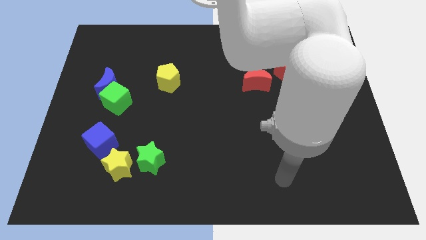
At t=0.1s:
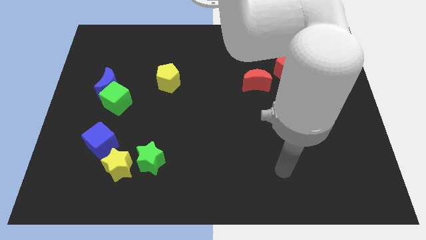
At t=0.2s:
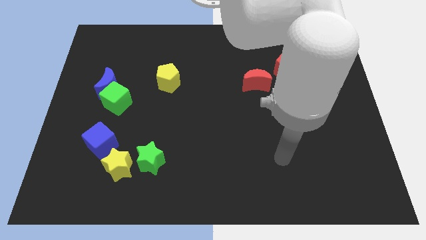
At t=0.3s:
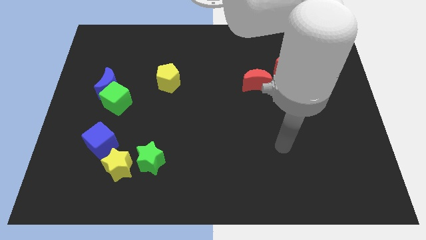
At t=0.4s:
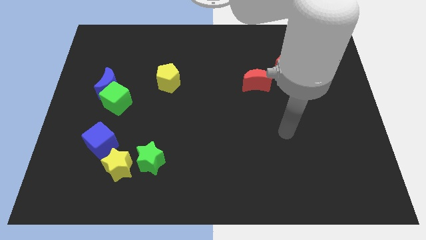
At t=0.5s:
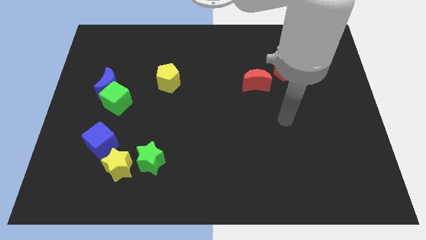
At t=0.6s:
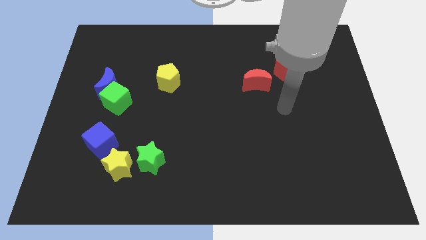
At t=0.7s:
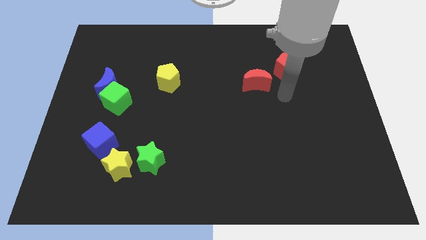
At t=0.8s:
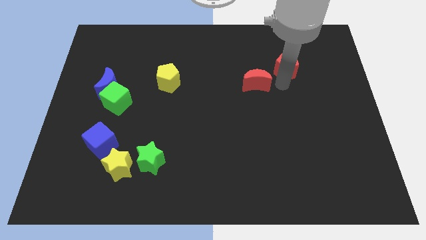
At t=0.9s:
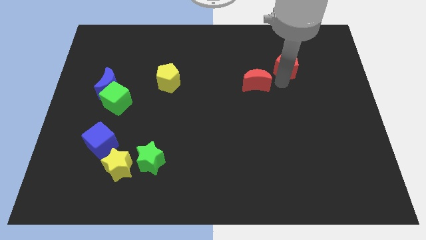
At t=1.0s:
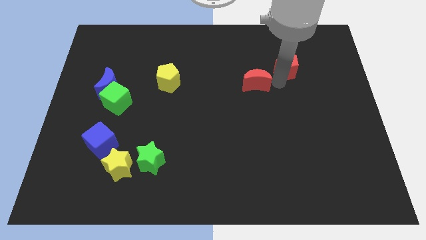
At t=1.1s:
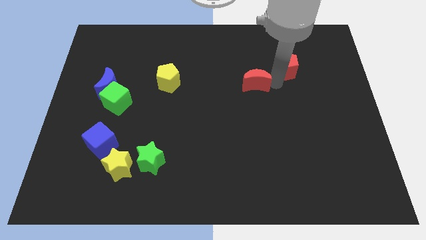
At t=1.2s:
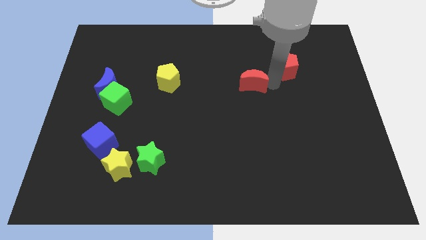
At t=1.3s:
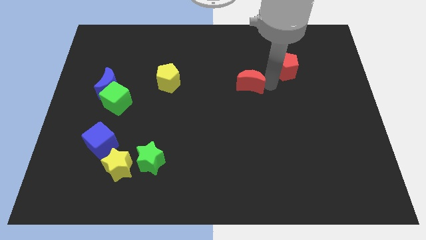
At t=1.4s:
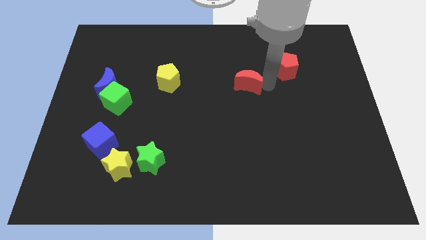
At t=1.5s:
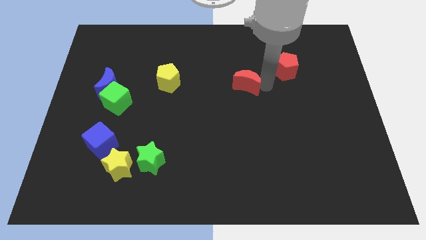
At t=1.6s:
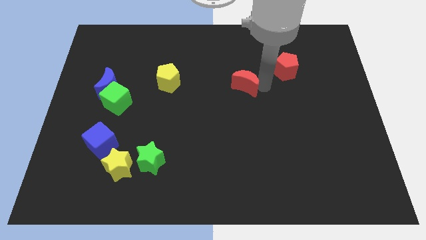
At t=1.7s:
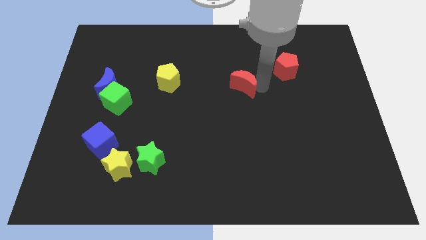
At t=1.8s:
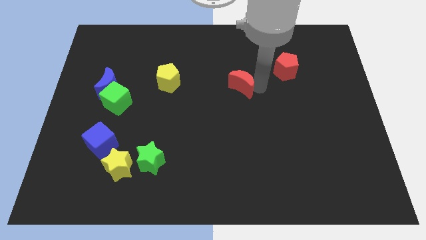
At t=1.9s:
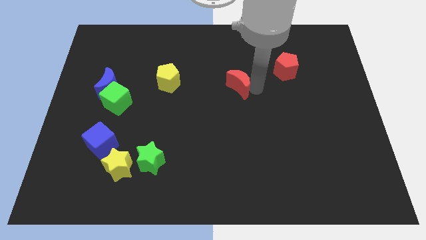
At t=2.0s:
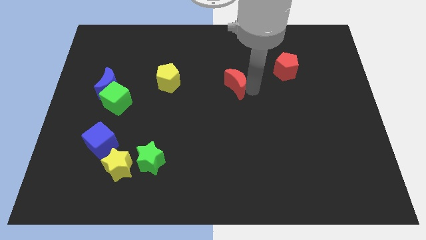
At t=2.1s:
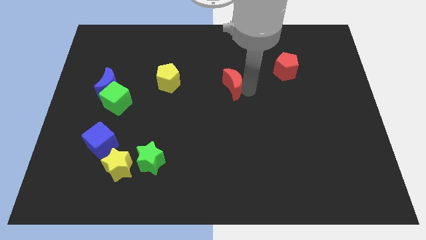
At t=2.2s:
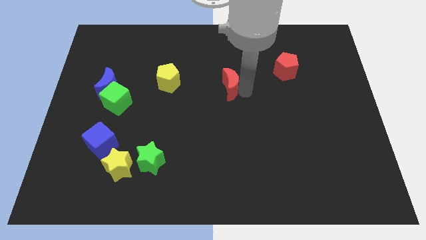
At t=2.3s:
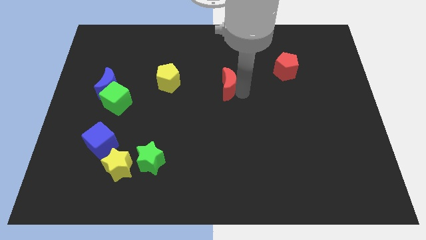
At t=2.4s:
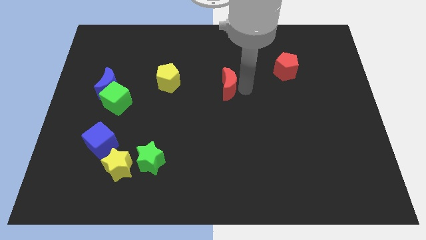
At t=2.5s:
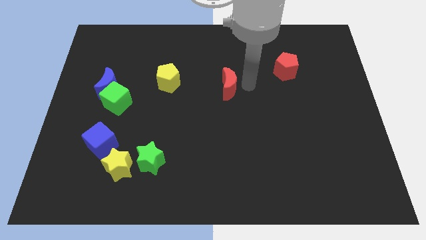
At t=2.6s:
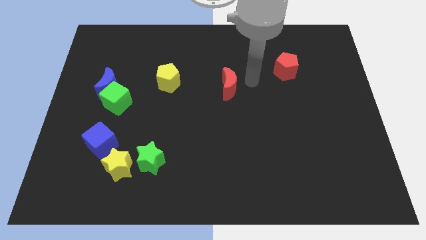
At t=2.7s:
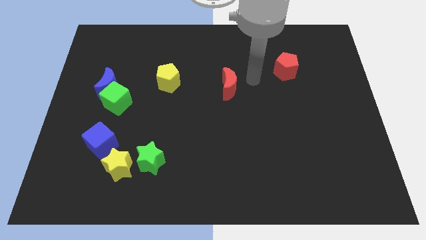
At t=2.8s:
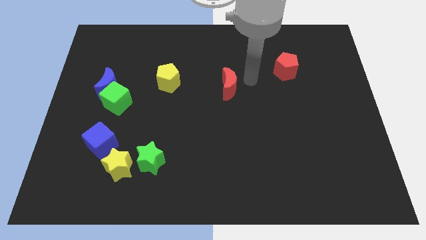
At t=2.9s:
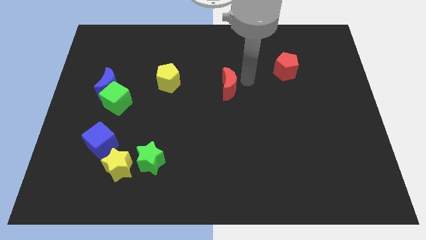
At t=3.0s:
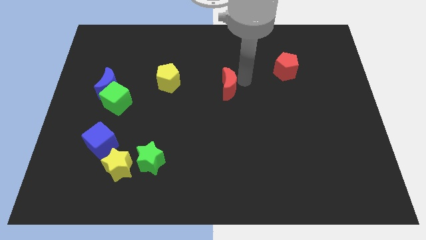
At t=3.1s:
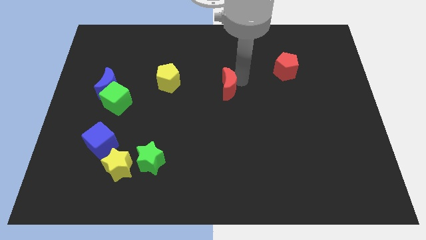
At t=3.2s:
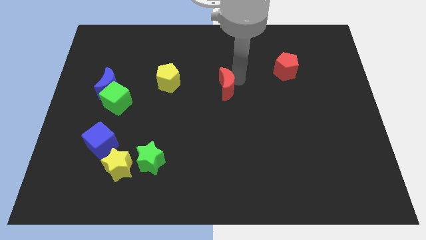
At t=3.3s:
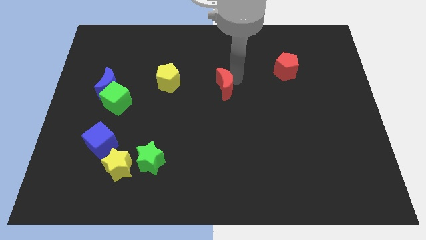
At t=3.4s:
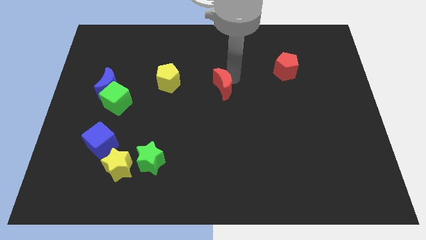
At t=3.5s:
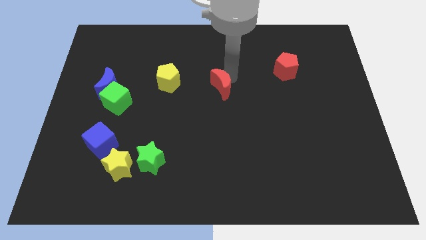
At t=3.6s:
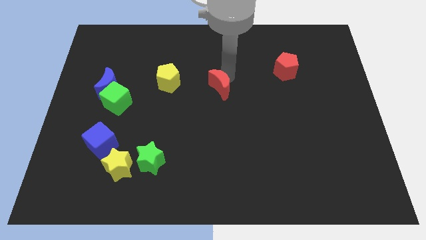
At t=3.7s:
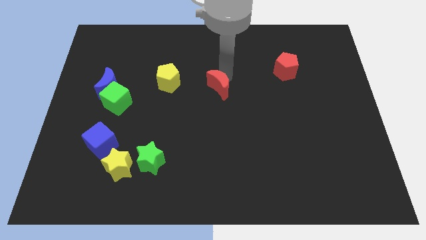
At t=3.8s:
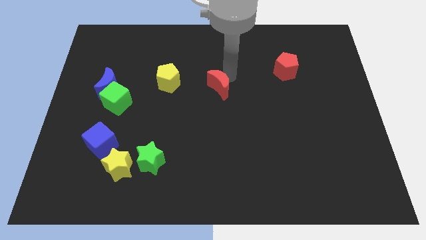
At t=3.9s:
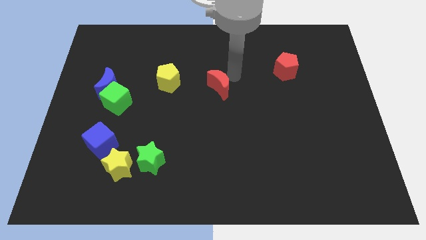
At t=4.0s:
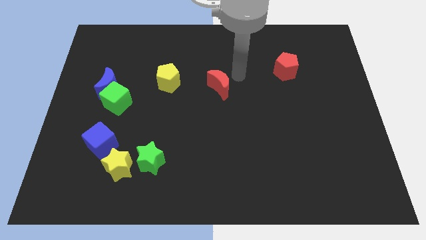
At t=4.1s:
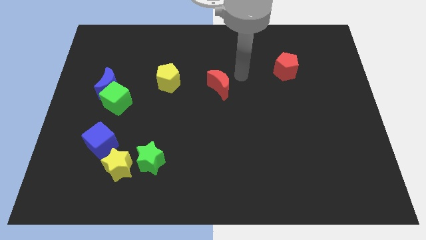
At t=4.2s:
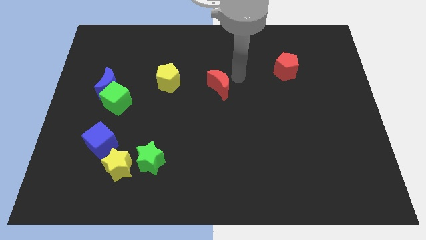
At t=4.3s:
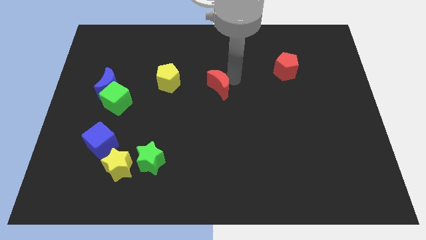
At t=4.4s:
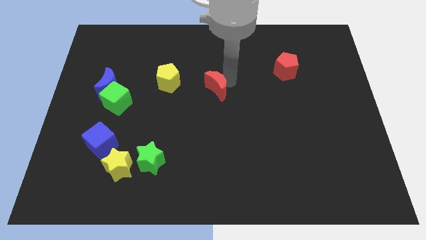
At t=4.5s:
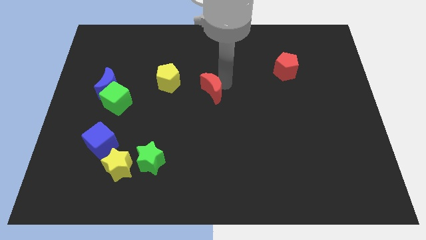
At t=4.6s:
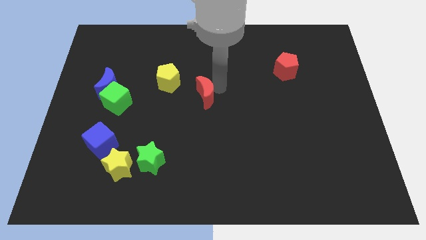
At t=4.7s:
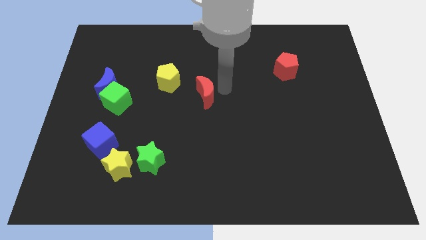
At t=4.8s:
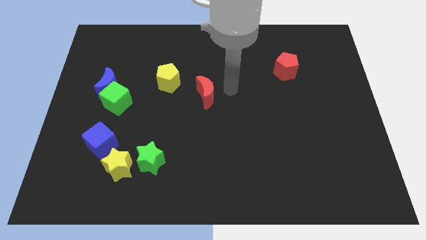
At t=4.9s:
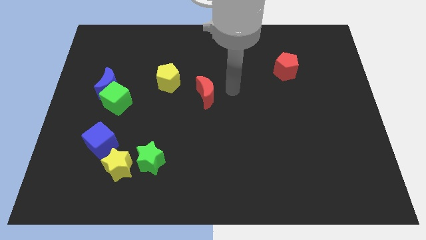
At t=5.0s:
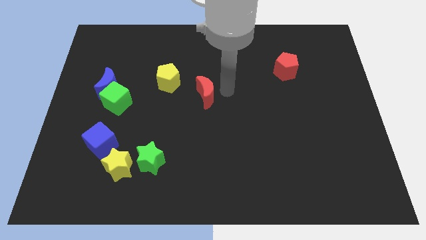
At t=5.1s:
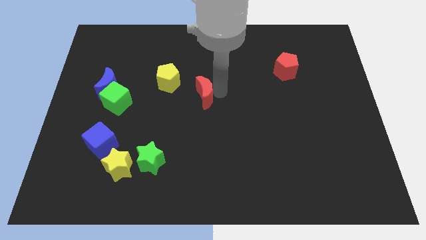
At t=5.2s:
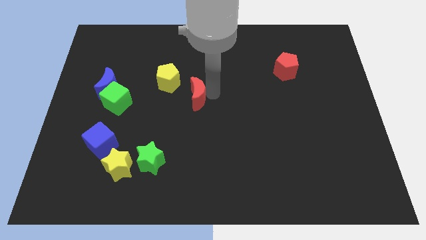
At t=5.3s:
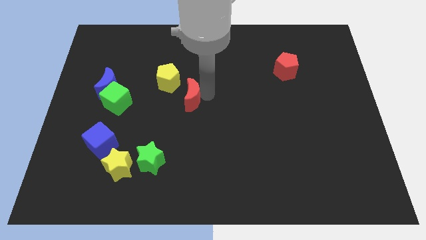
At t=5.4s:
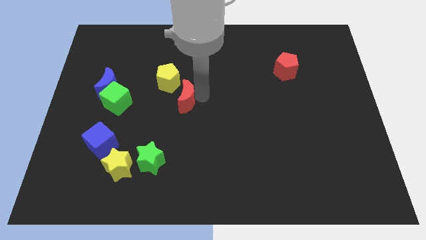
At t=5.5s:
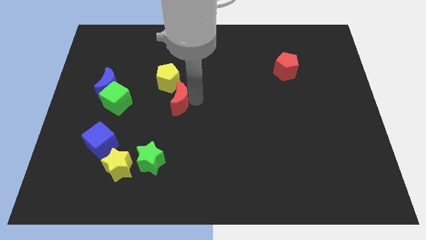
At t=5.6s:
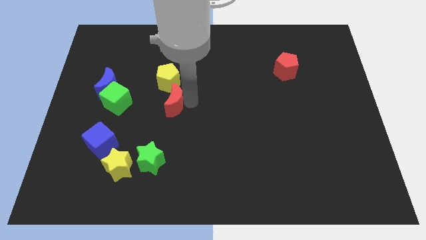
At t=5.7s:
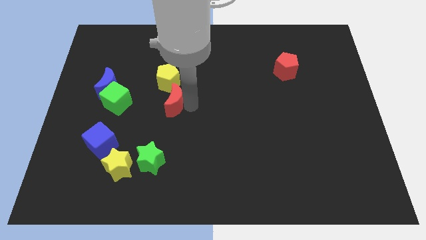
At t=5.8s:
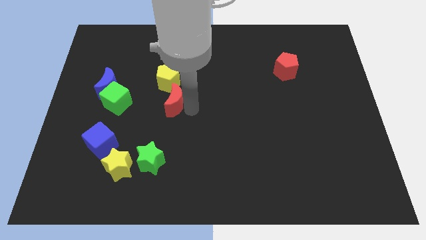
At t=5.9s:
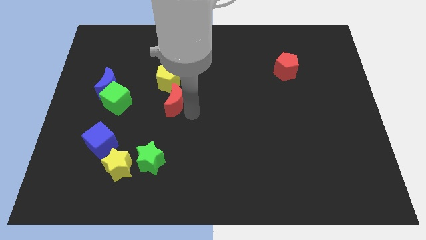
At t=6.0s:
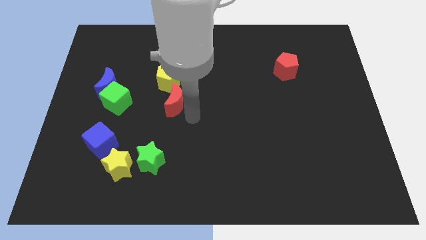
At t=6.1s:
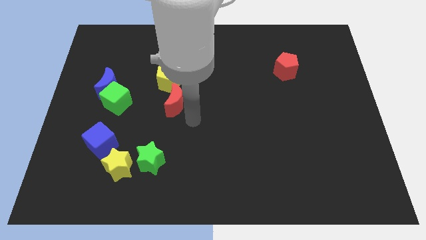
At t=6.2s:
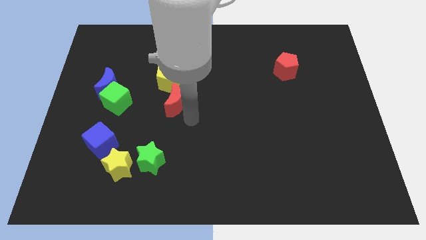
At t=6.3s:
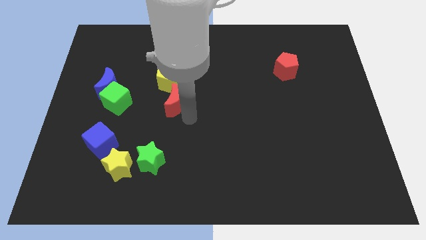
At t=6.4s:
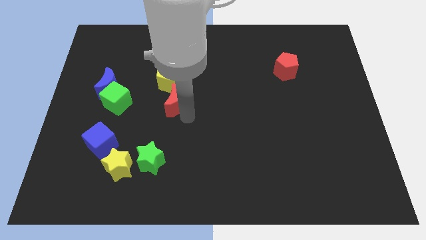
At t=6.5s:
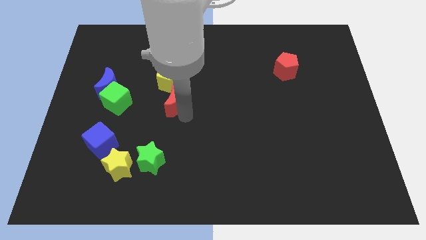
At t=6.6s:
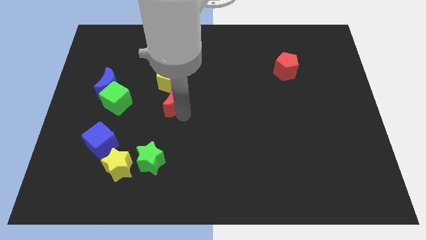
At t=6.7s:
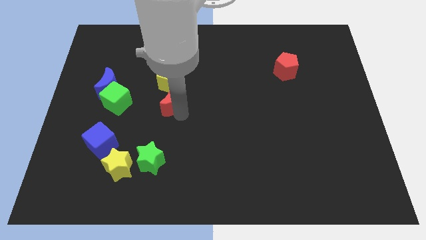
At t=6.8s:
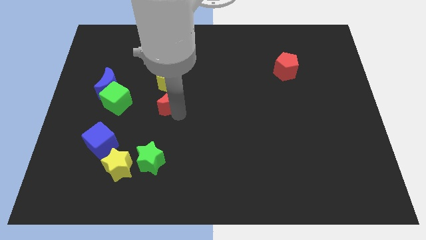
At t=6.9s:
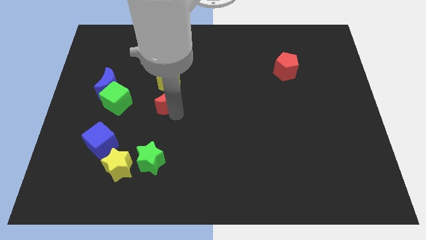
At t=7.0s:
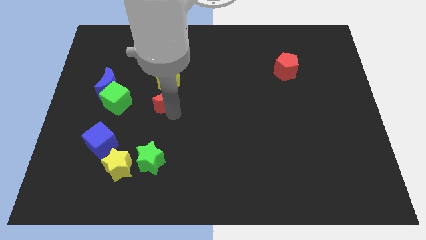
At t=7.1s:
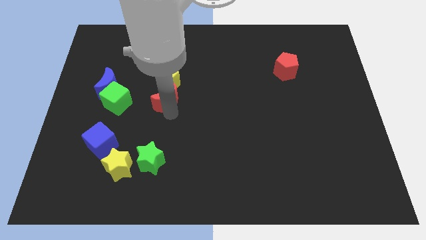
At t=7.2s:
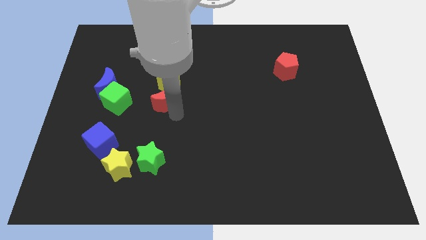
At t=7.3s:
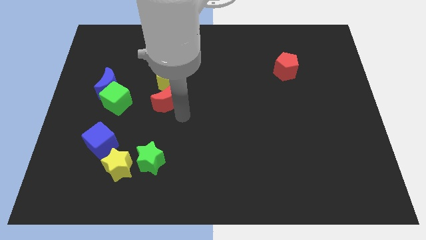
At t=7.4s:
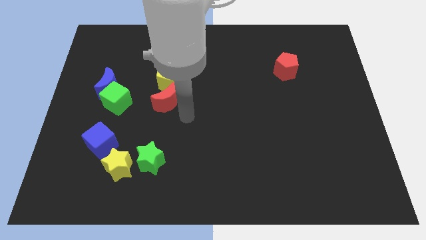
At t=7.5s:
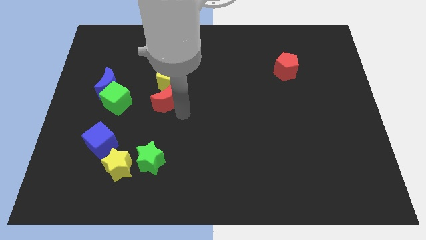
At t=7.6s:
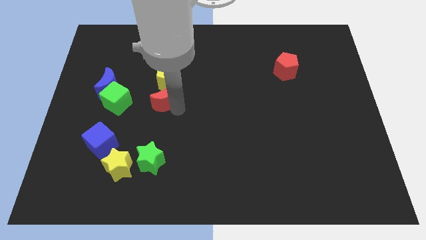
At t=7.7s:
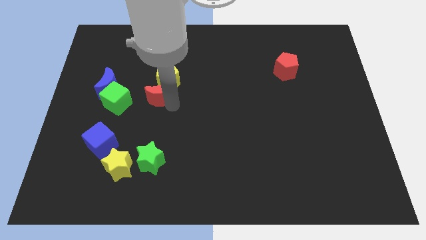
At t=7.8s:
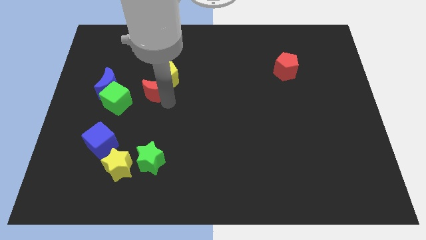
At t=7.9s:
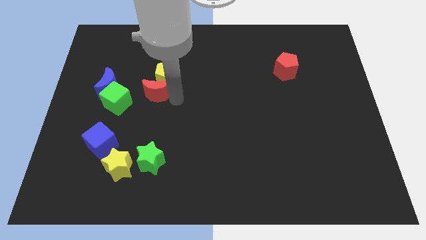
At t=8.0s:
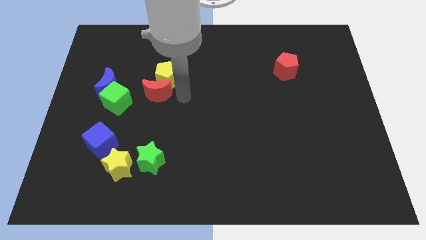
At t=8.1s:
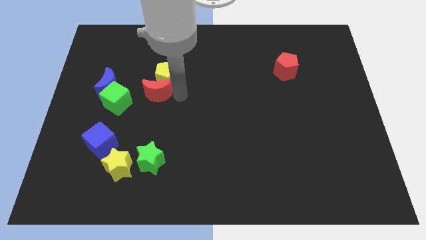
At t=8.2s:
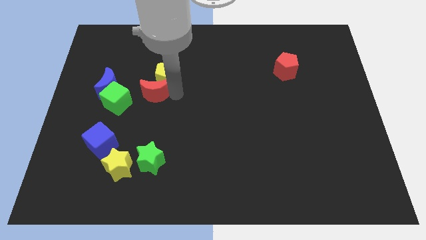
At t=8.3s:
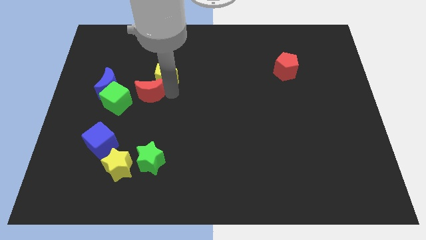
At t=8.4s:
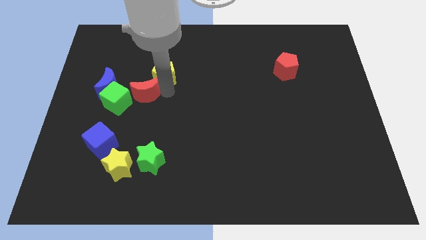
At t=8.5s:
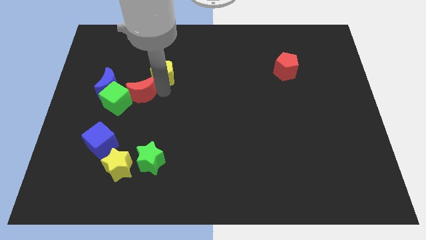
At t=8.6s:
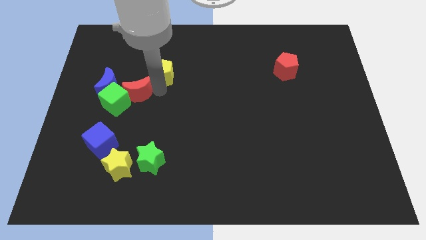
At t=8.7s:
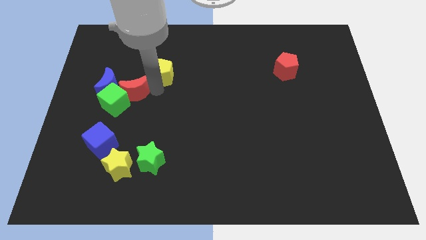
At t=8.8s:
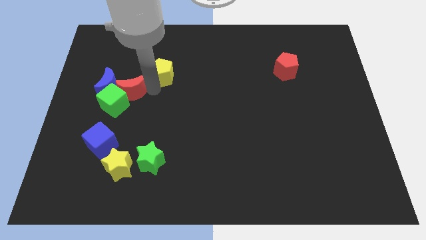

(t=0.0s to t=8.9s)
move the red moon close to the blue moon
